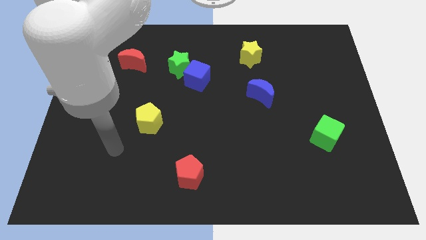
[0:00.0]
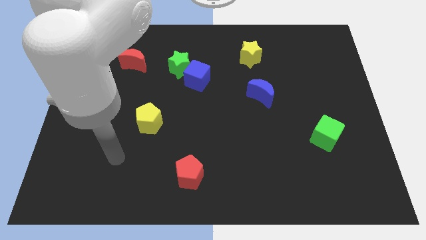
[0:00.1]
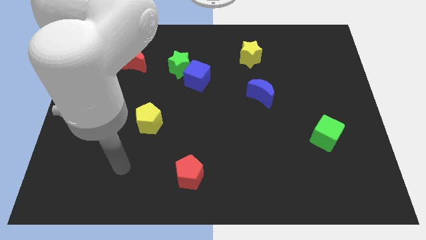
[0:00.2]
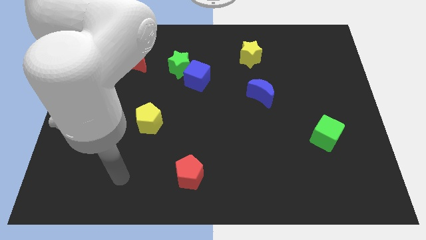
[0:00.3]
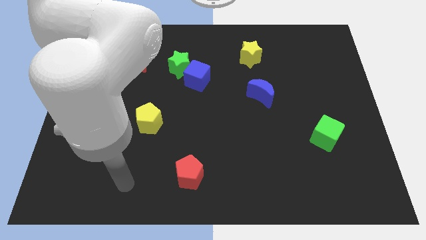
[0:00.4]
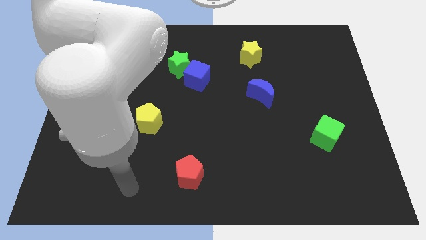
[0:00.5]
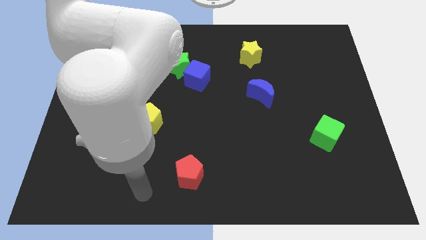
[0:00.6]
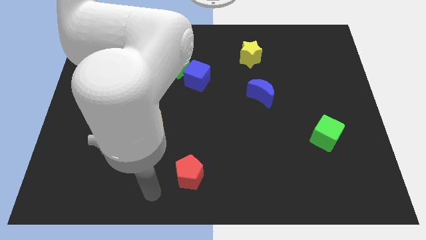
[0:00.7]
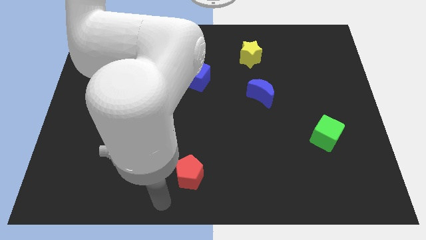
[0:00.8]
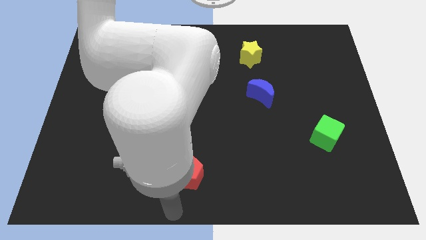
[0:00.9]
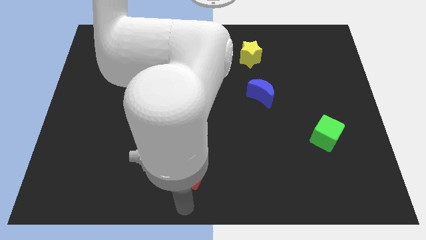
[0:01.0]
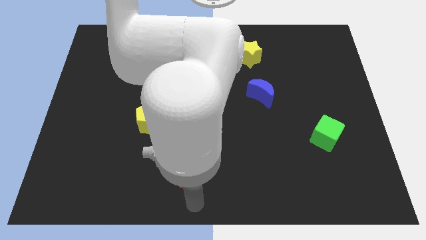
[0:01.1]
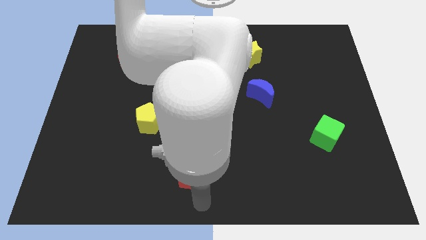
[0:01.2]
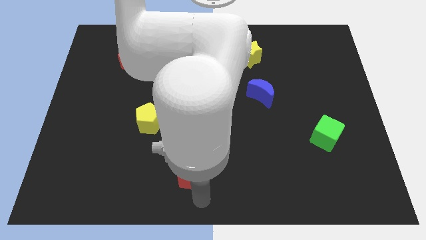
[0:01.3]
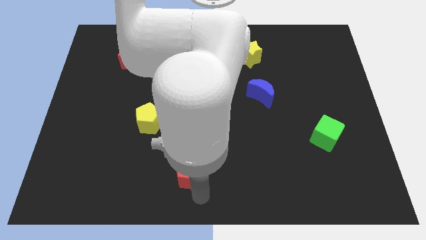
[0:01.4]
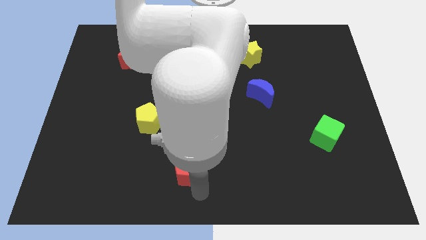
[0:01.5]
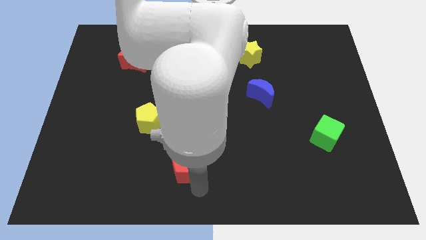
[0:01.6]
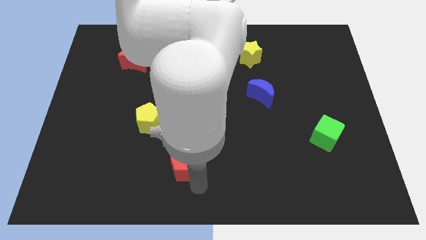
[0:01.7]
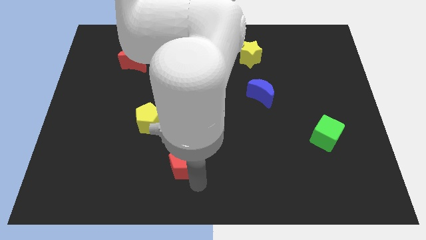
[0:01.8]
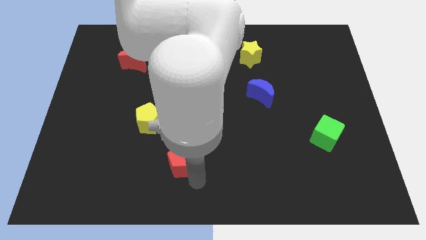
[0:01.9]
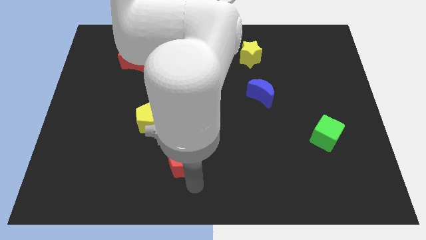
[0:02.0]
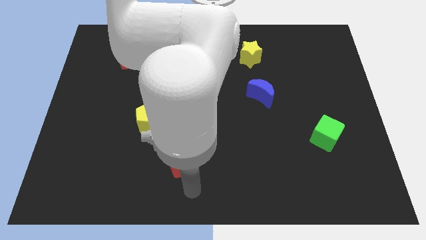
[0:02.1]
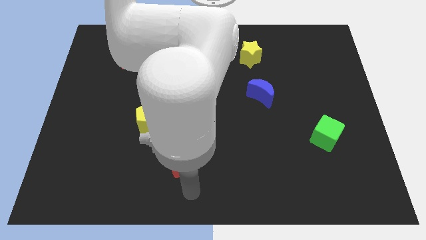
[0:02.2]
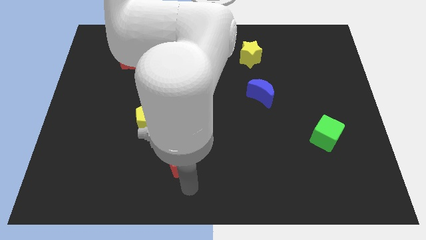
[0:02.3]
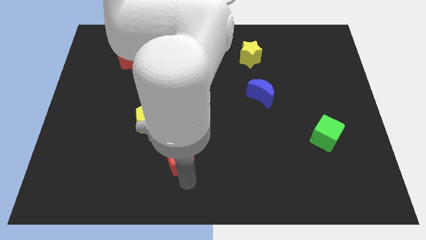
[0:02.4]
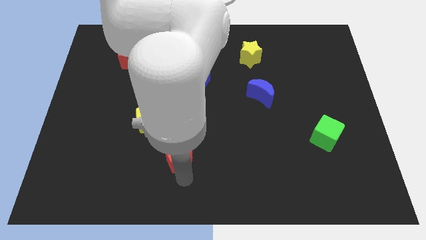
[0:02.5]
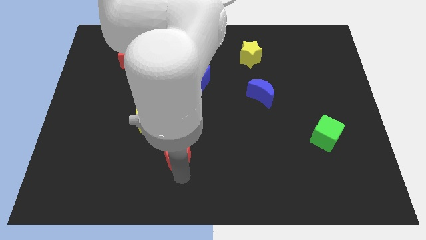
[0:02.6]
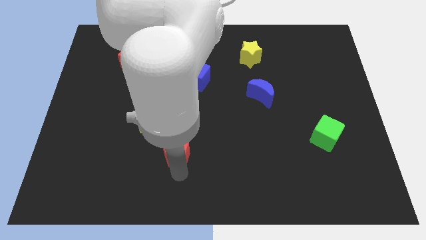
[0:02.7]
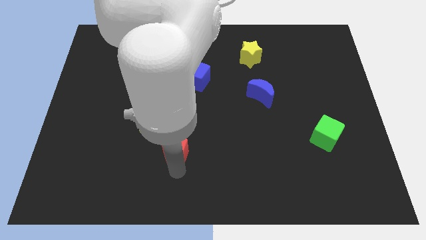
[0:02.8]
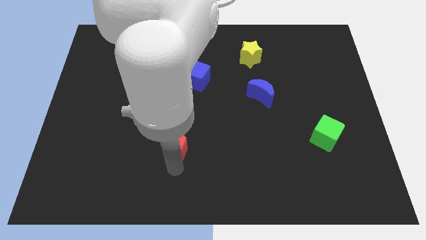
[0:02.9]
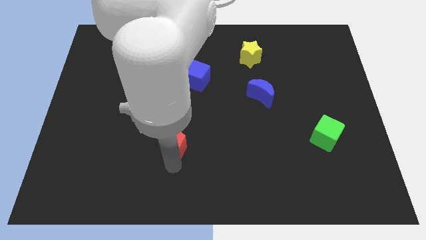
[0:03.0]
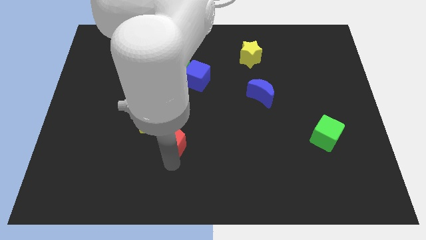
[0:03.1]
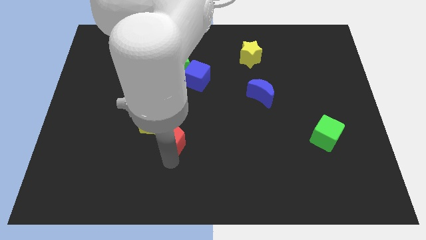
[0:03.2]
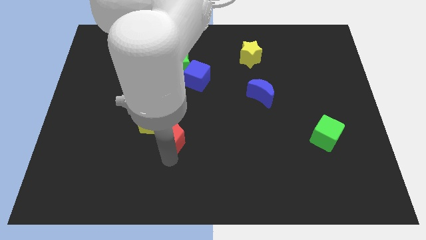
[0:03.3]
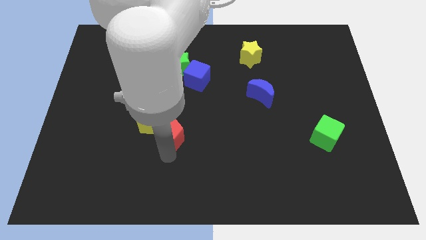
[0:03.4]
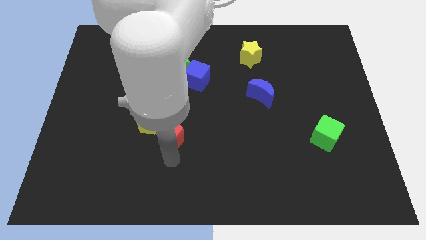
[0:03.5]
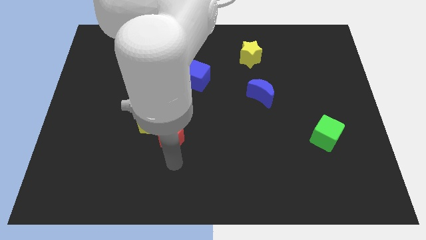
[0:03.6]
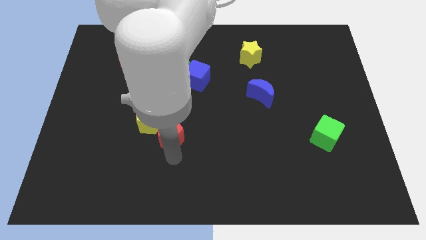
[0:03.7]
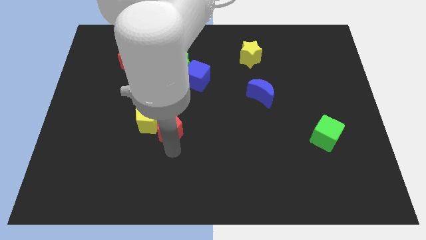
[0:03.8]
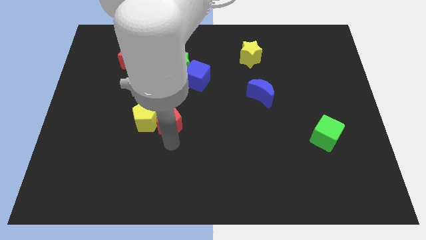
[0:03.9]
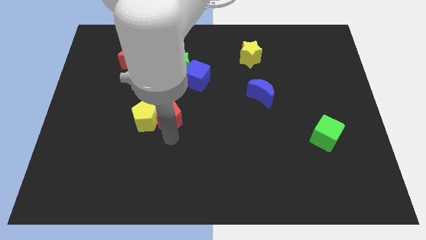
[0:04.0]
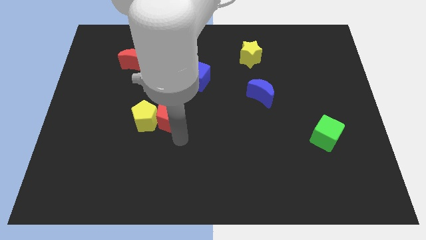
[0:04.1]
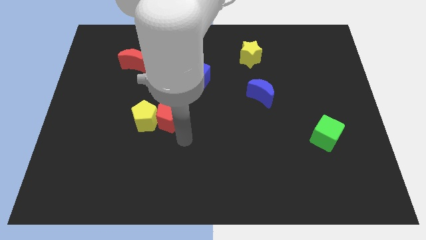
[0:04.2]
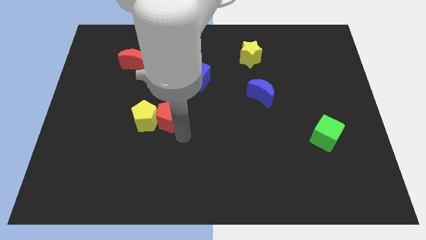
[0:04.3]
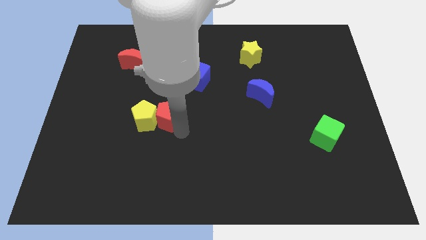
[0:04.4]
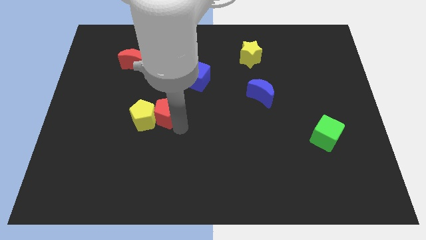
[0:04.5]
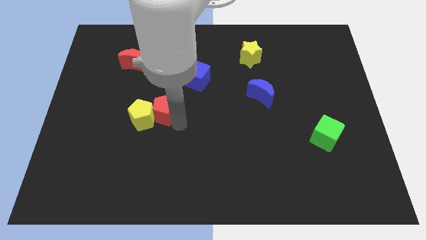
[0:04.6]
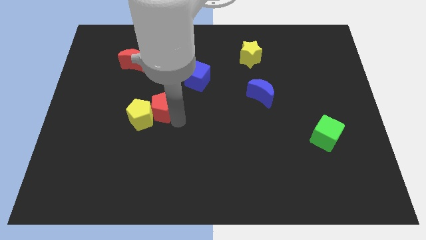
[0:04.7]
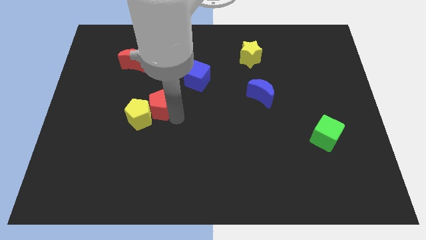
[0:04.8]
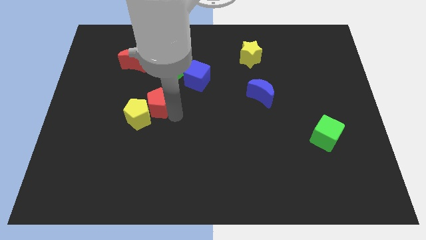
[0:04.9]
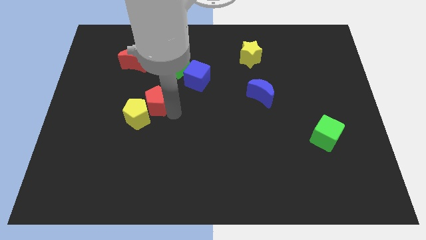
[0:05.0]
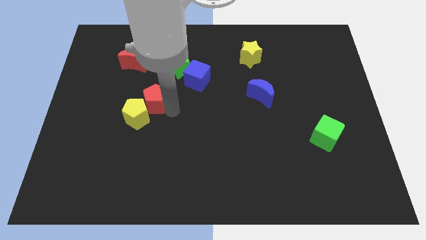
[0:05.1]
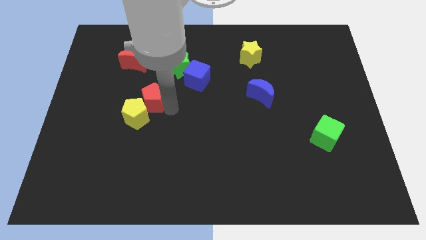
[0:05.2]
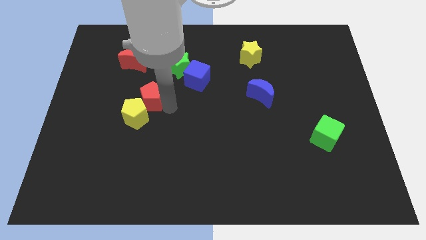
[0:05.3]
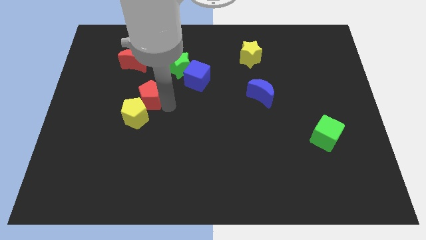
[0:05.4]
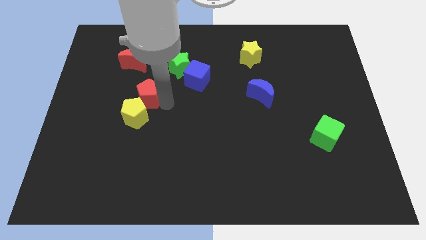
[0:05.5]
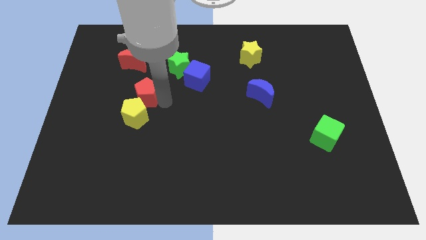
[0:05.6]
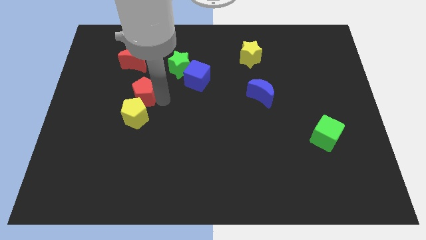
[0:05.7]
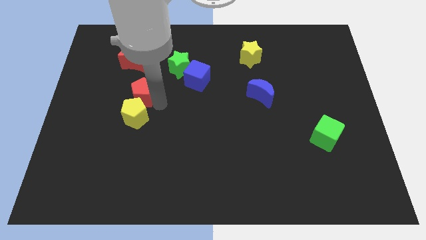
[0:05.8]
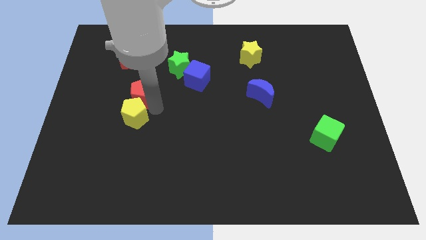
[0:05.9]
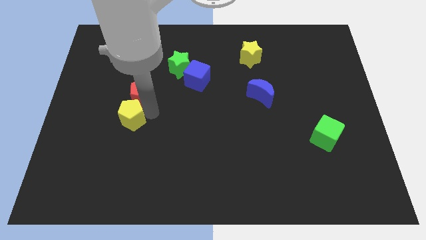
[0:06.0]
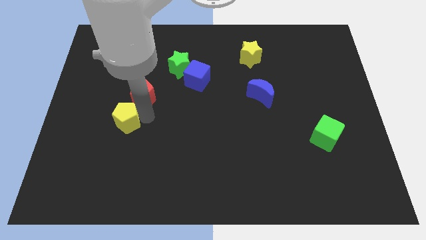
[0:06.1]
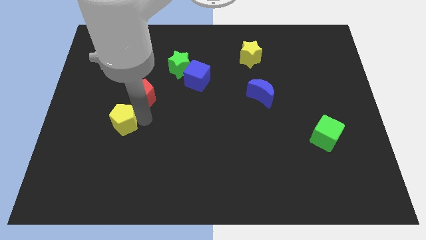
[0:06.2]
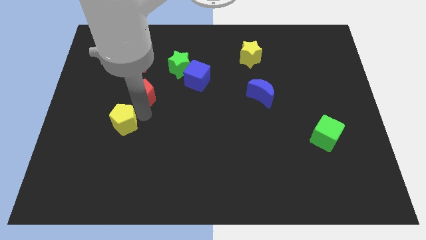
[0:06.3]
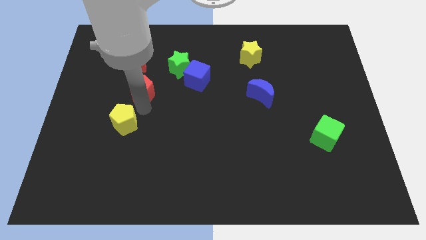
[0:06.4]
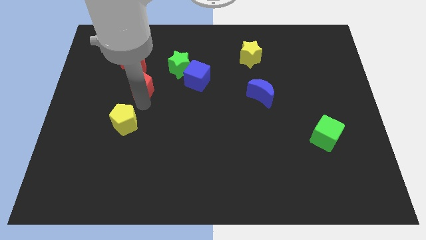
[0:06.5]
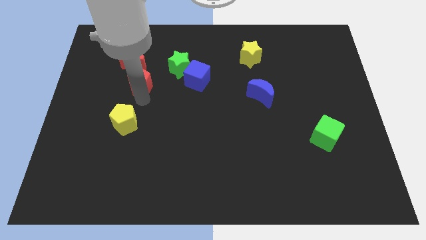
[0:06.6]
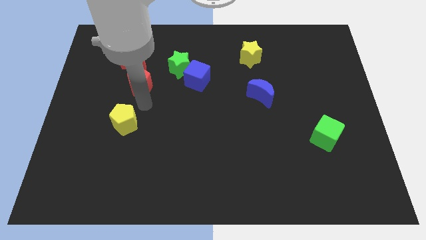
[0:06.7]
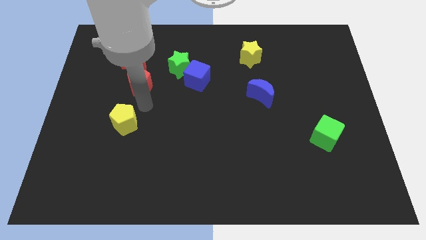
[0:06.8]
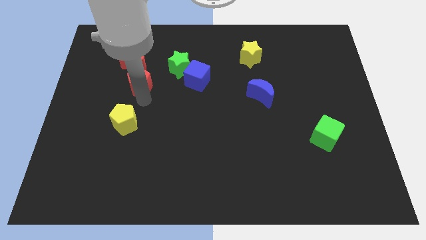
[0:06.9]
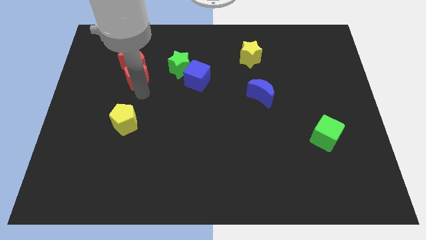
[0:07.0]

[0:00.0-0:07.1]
put the red pentagon close to the red moon

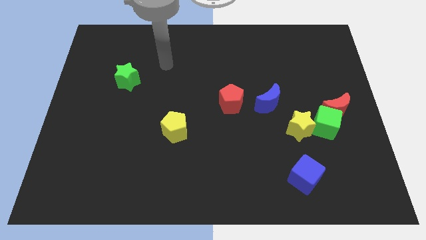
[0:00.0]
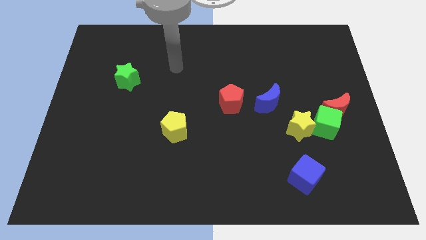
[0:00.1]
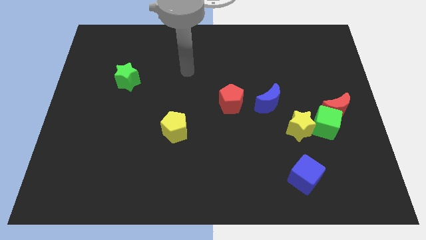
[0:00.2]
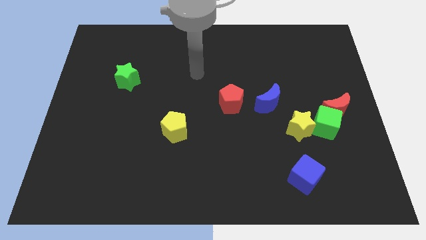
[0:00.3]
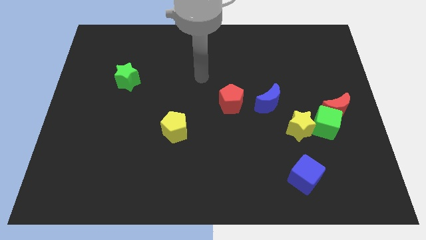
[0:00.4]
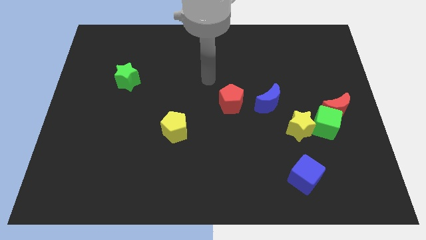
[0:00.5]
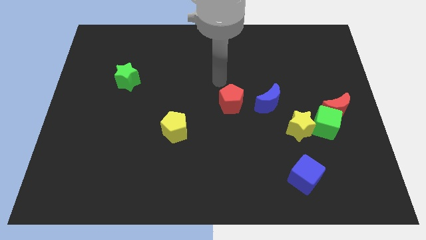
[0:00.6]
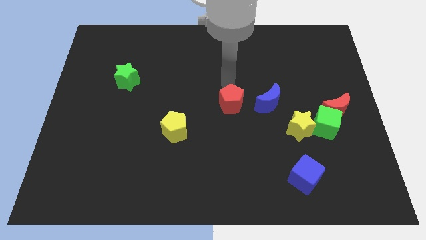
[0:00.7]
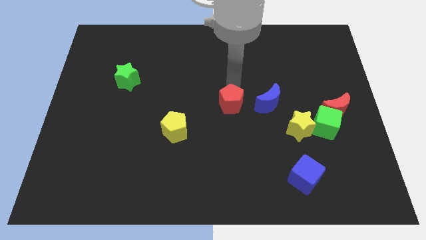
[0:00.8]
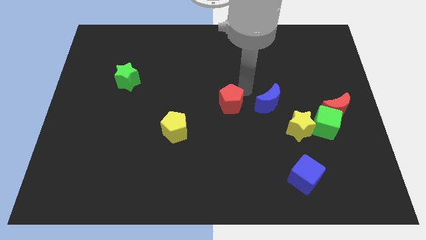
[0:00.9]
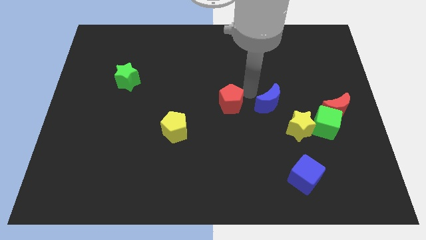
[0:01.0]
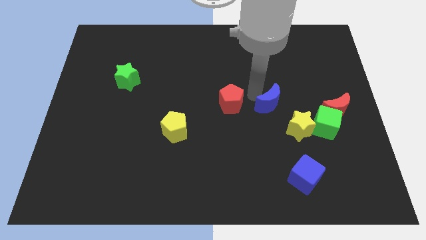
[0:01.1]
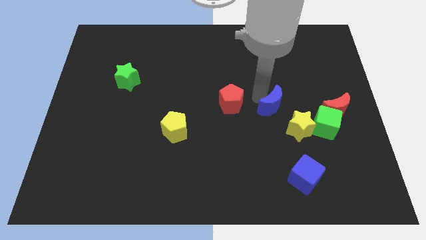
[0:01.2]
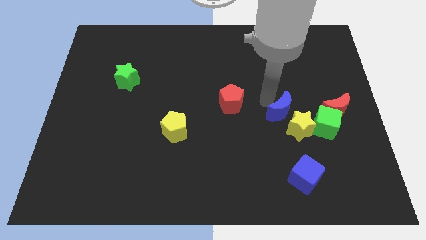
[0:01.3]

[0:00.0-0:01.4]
slide the blue moon towards the yellow star
